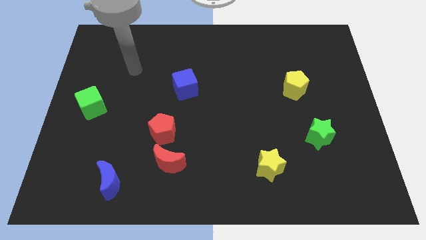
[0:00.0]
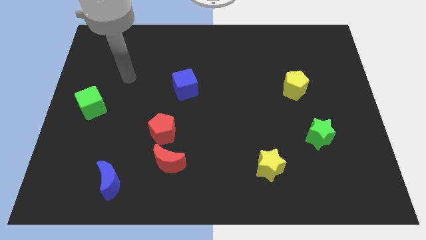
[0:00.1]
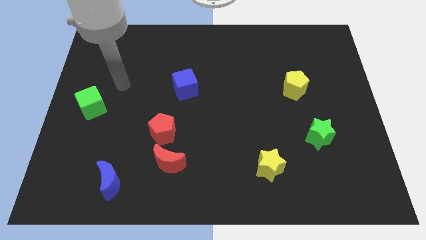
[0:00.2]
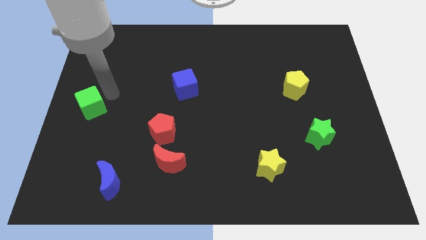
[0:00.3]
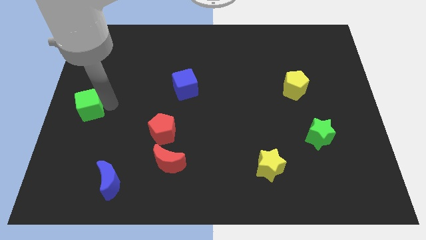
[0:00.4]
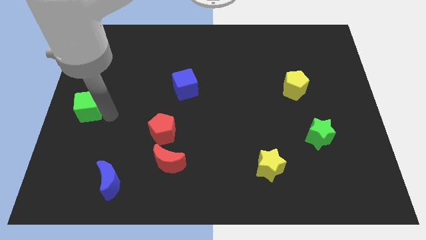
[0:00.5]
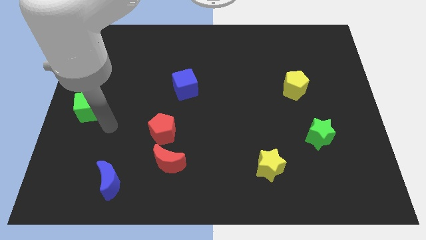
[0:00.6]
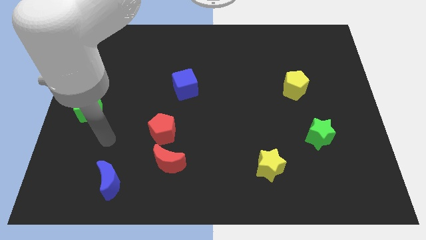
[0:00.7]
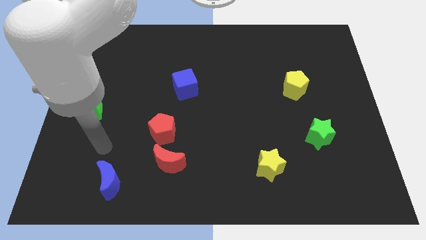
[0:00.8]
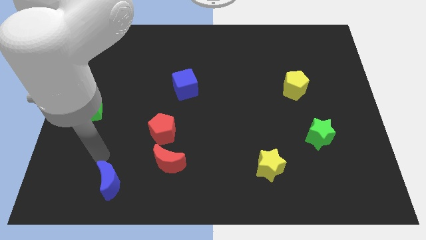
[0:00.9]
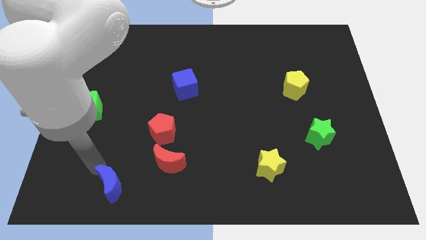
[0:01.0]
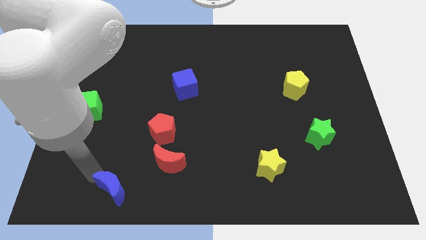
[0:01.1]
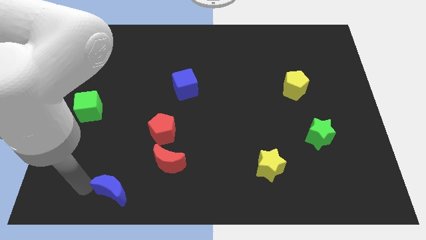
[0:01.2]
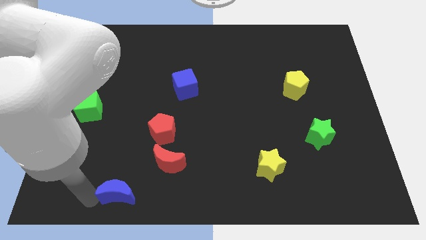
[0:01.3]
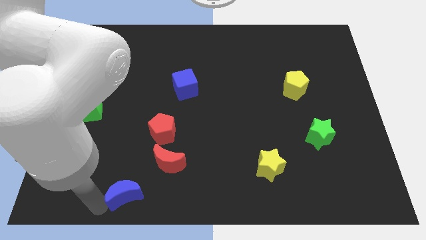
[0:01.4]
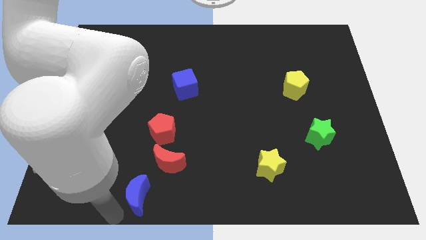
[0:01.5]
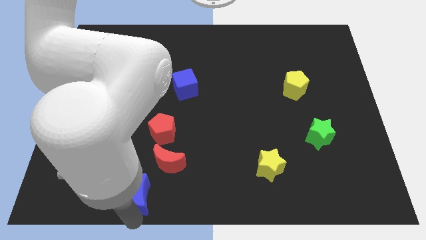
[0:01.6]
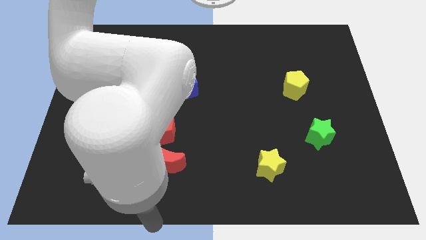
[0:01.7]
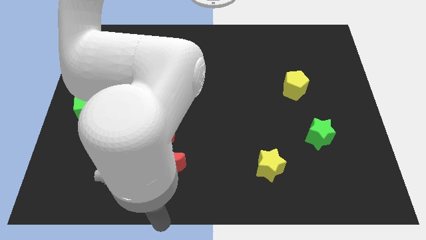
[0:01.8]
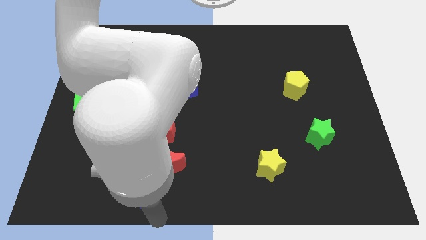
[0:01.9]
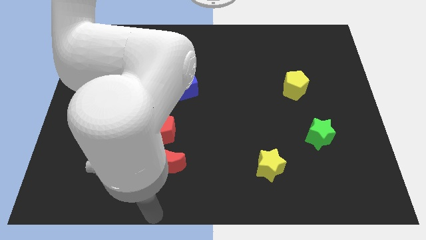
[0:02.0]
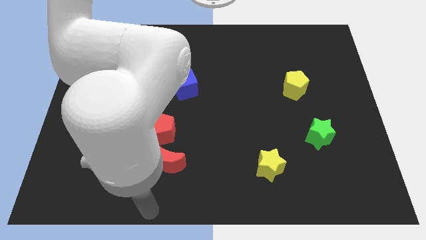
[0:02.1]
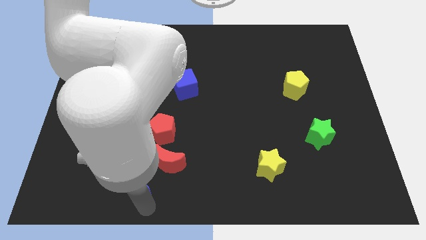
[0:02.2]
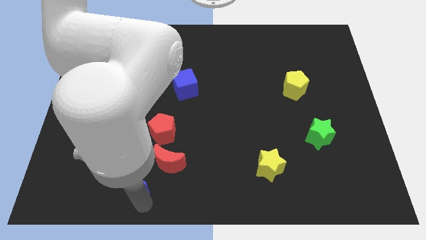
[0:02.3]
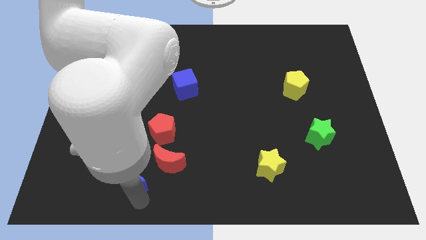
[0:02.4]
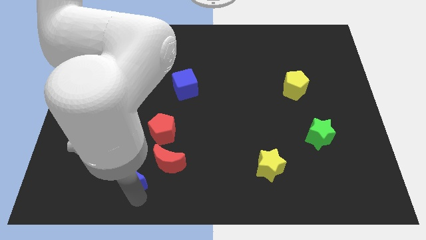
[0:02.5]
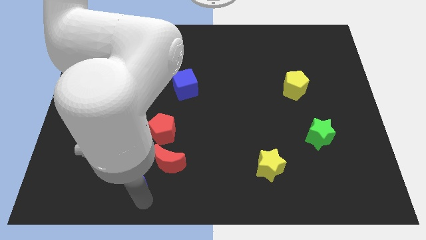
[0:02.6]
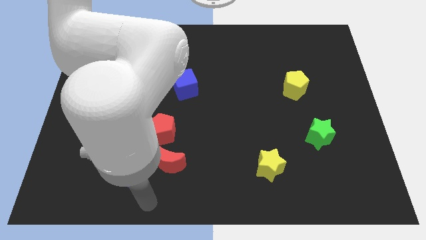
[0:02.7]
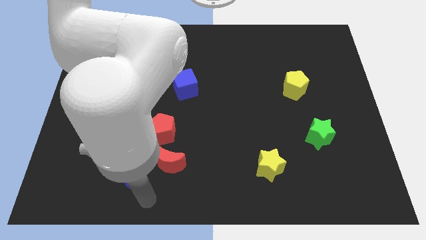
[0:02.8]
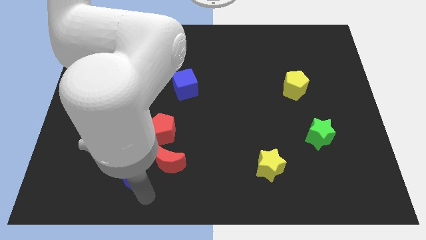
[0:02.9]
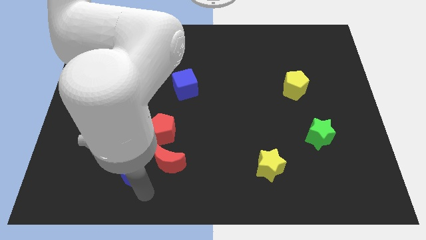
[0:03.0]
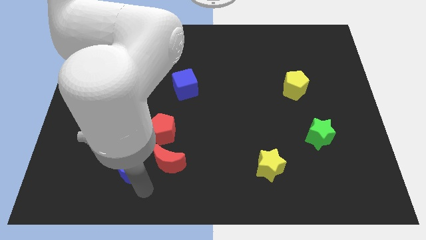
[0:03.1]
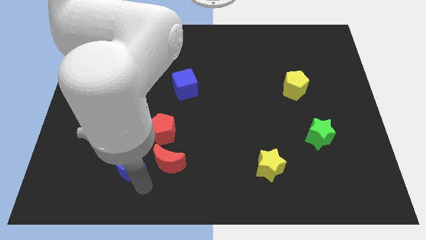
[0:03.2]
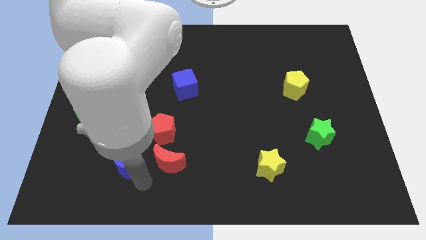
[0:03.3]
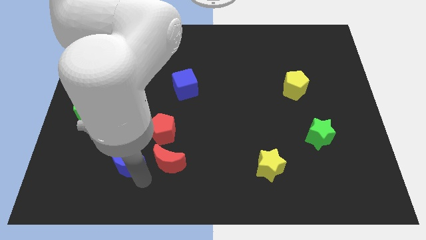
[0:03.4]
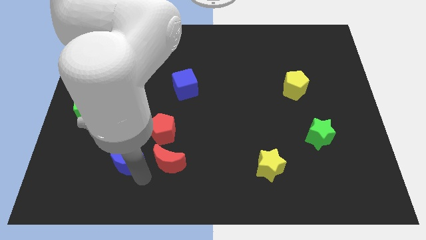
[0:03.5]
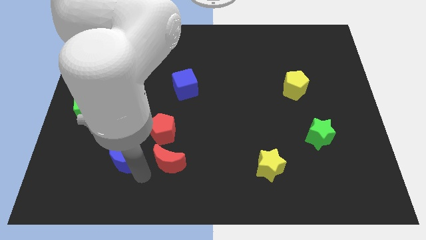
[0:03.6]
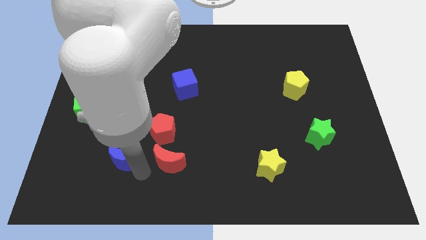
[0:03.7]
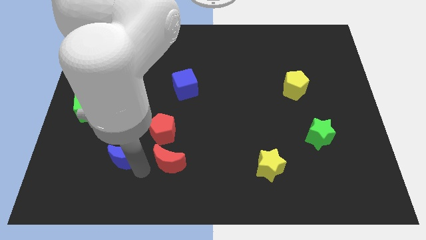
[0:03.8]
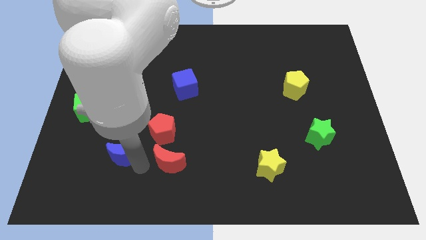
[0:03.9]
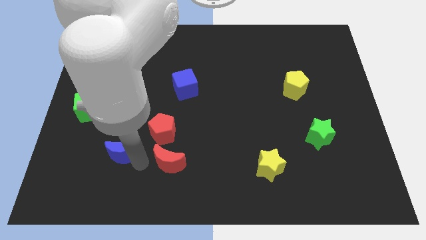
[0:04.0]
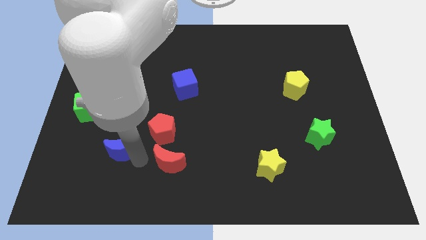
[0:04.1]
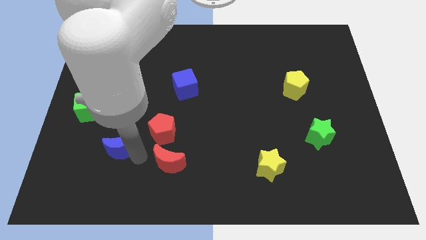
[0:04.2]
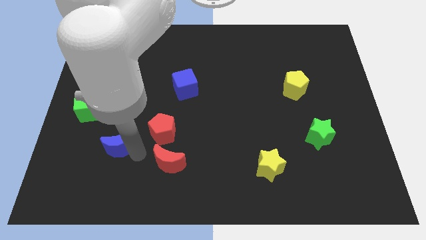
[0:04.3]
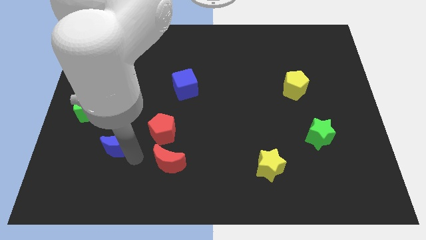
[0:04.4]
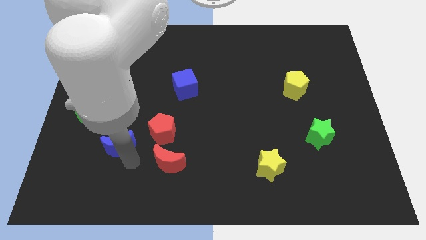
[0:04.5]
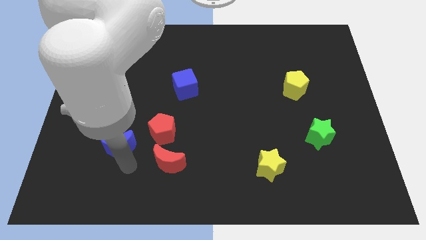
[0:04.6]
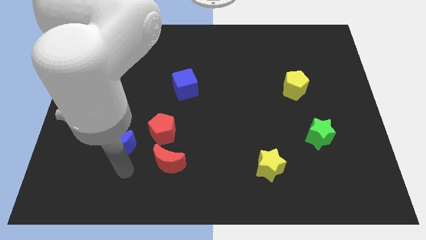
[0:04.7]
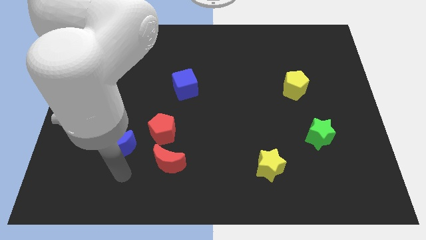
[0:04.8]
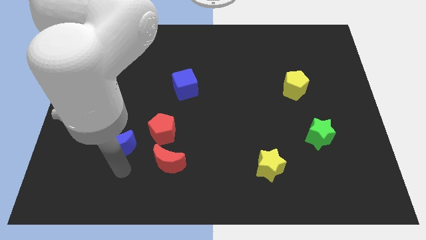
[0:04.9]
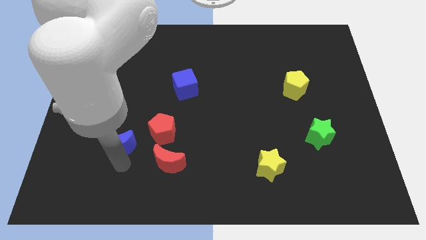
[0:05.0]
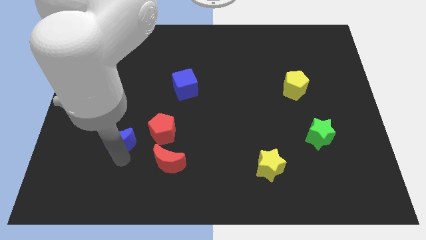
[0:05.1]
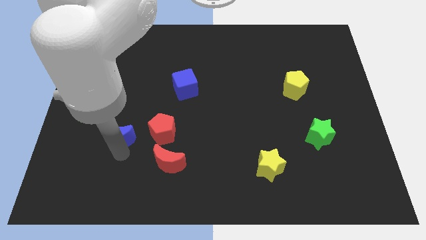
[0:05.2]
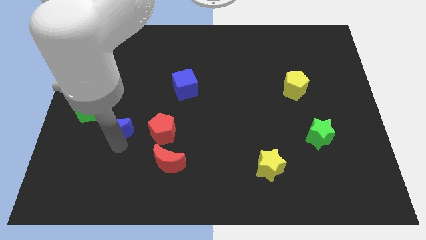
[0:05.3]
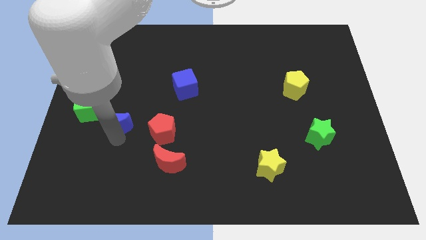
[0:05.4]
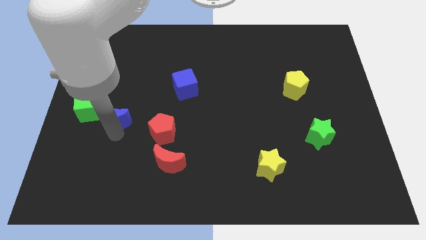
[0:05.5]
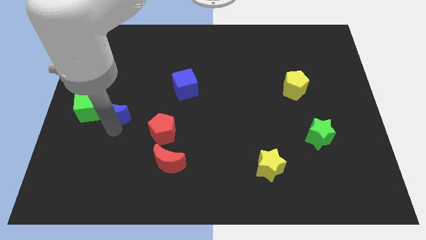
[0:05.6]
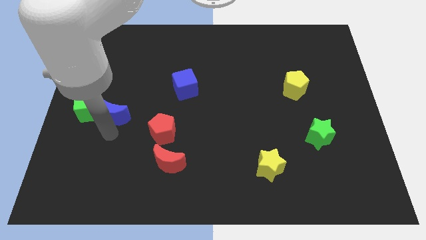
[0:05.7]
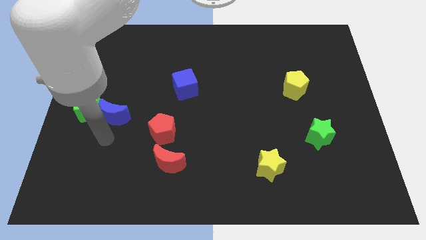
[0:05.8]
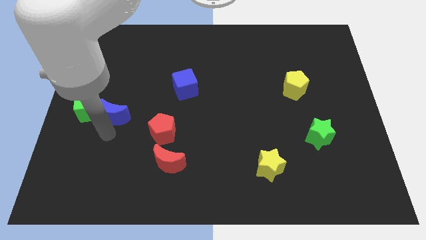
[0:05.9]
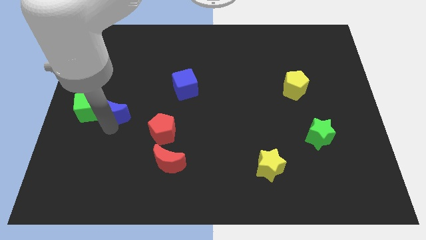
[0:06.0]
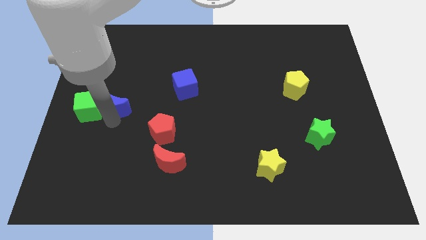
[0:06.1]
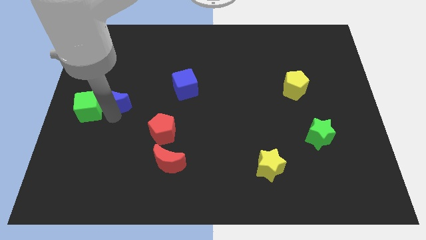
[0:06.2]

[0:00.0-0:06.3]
slide the blue moon up

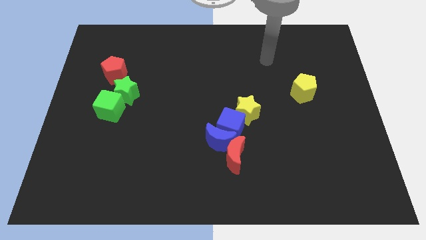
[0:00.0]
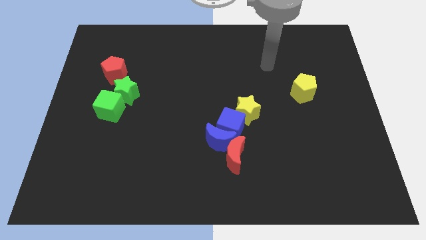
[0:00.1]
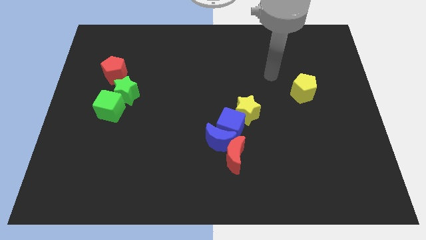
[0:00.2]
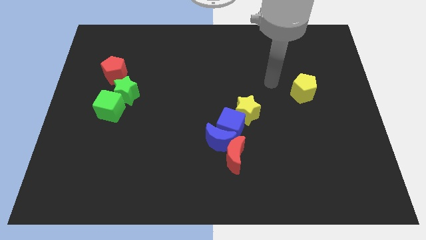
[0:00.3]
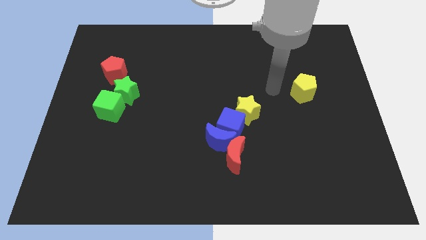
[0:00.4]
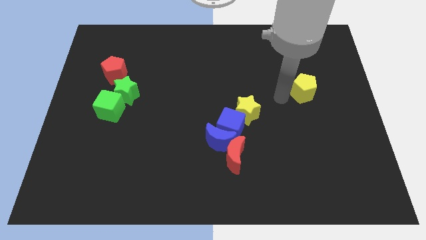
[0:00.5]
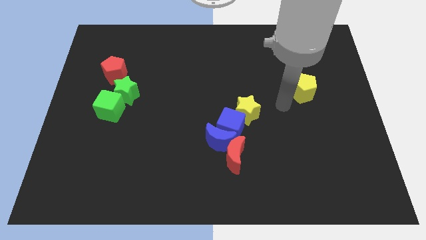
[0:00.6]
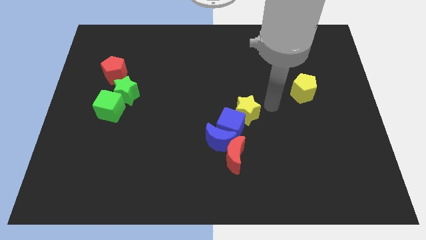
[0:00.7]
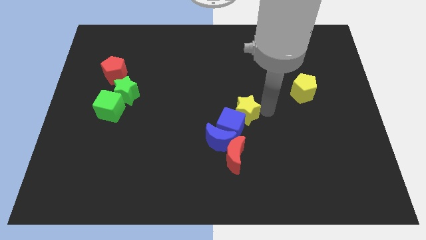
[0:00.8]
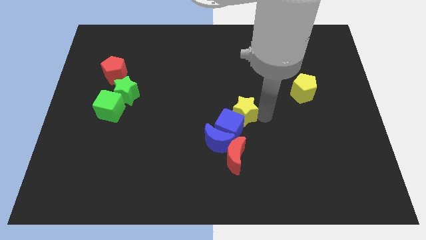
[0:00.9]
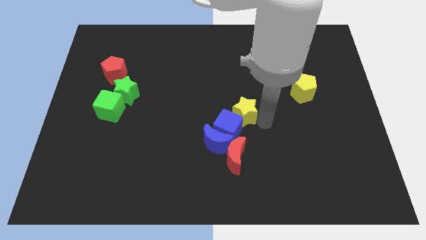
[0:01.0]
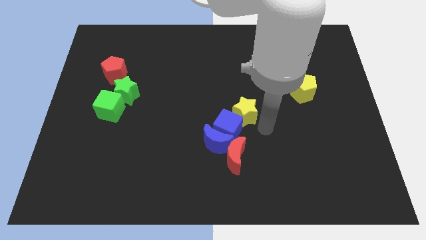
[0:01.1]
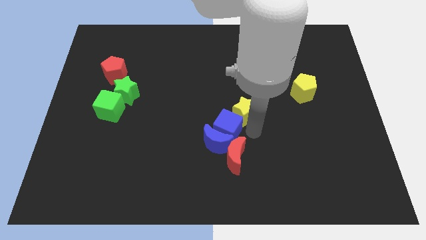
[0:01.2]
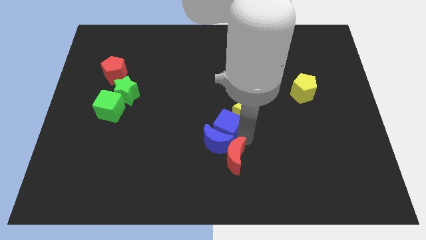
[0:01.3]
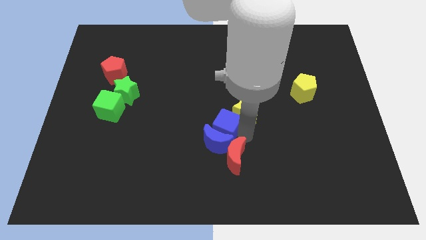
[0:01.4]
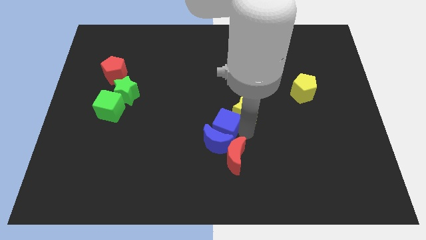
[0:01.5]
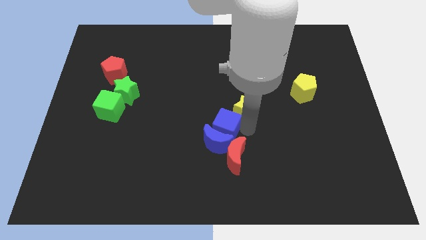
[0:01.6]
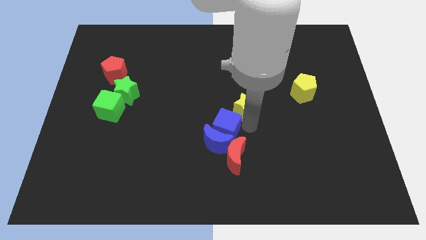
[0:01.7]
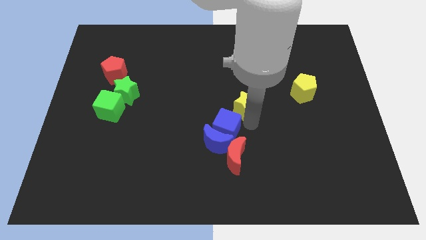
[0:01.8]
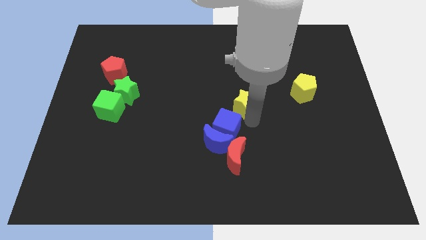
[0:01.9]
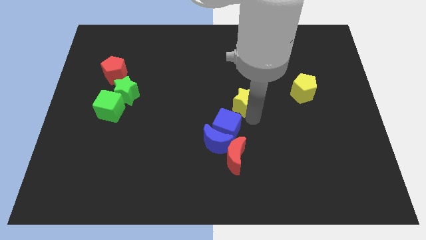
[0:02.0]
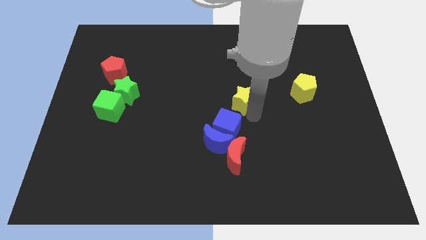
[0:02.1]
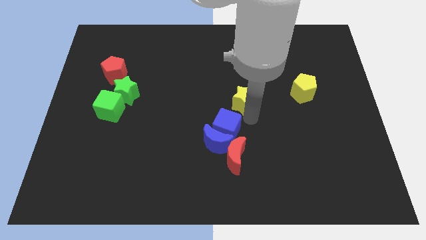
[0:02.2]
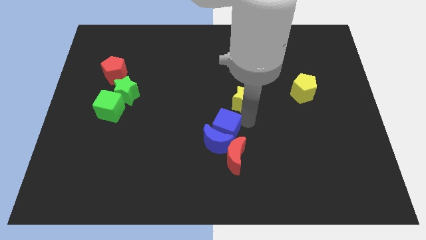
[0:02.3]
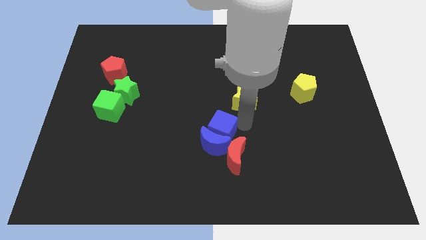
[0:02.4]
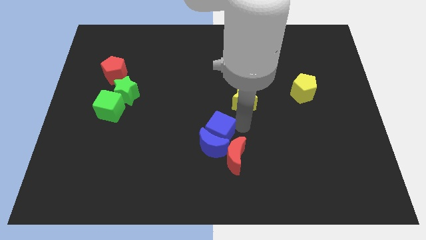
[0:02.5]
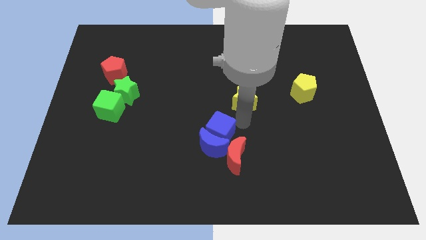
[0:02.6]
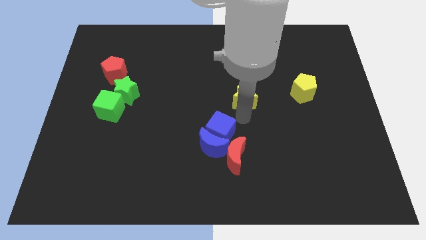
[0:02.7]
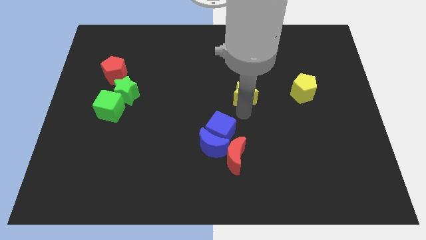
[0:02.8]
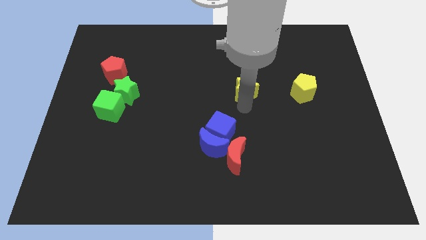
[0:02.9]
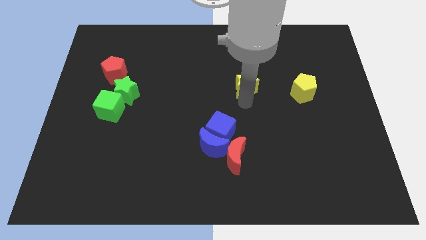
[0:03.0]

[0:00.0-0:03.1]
slide the yellow star up a little
